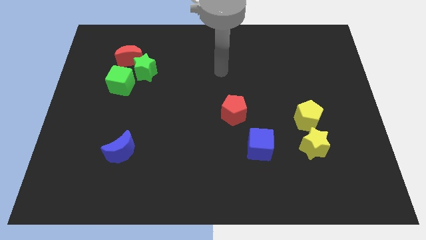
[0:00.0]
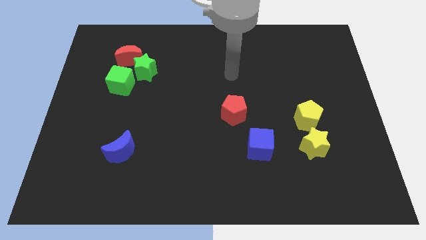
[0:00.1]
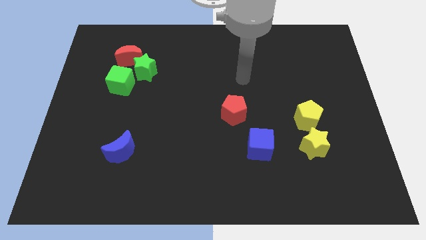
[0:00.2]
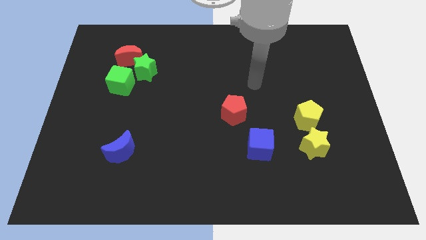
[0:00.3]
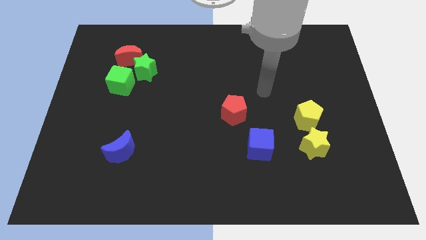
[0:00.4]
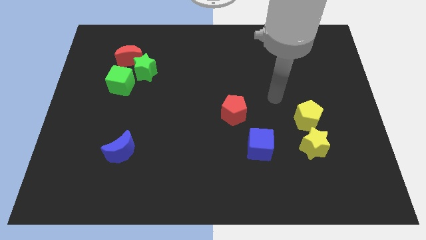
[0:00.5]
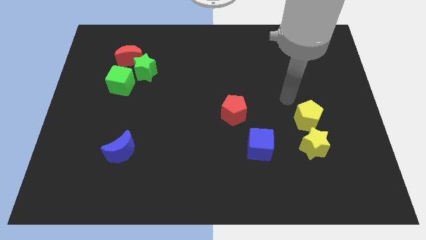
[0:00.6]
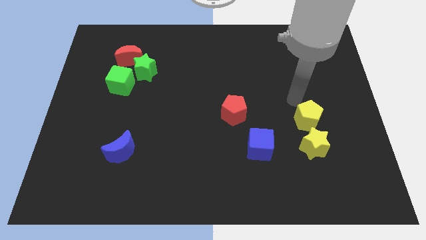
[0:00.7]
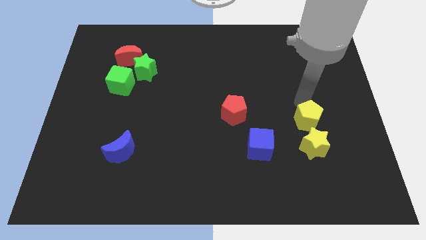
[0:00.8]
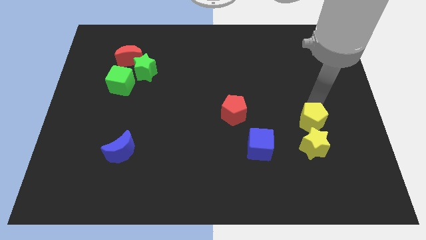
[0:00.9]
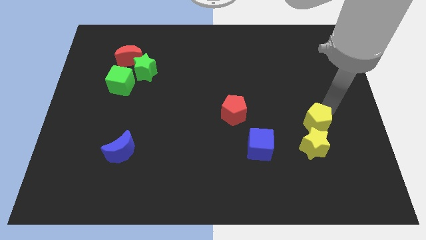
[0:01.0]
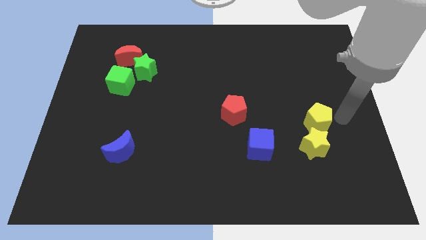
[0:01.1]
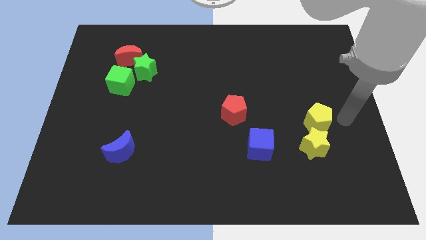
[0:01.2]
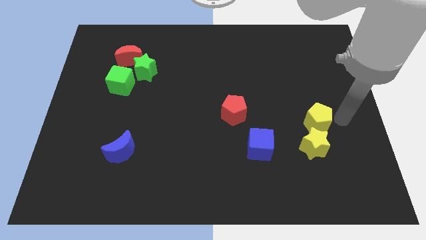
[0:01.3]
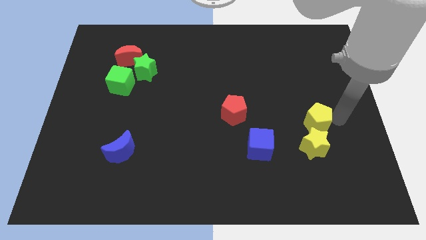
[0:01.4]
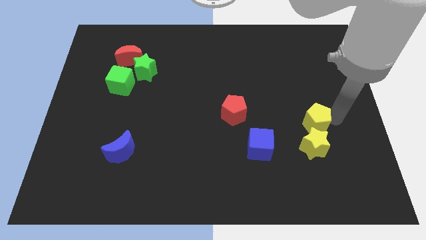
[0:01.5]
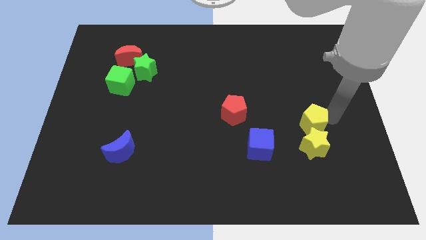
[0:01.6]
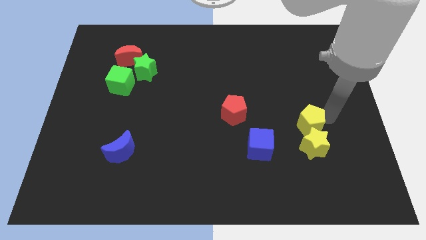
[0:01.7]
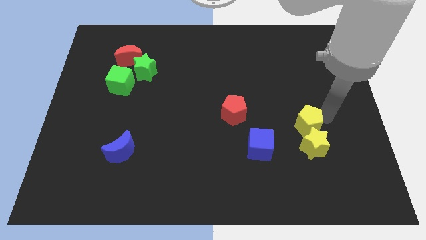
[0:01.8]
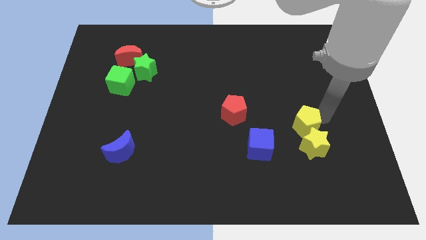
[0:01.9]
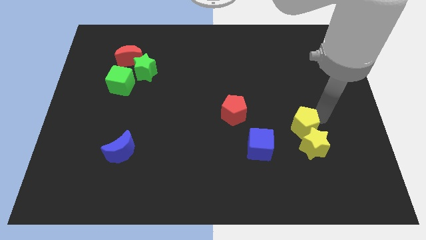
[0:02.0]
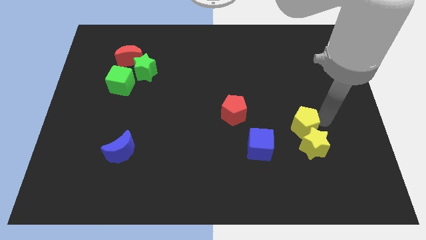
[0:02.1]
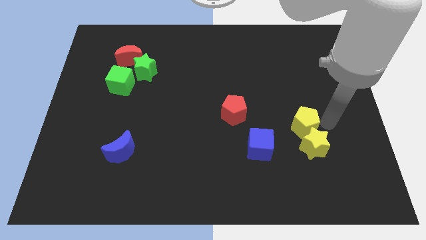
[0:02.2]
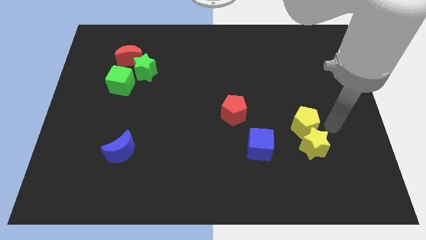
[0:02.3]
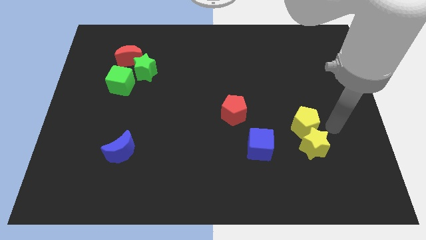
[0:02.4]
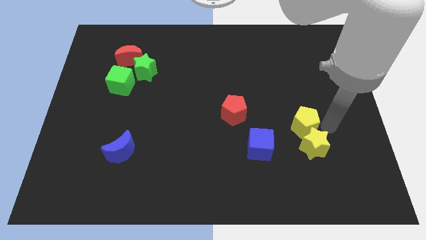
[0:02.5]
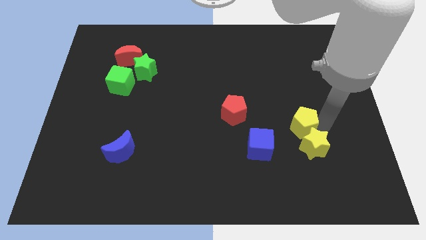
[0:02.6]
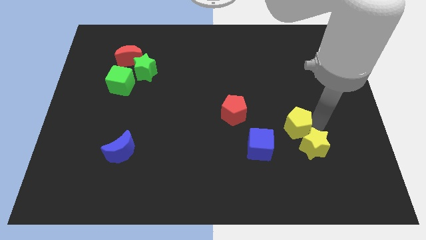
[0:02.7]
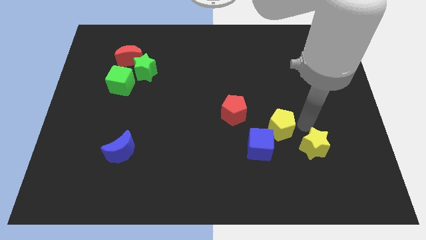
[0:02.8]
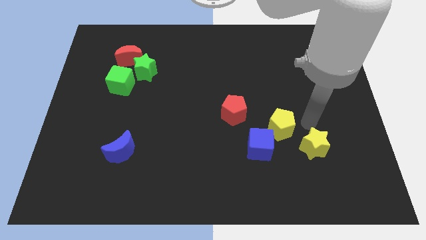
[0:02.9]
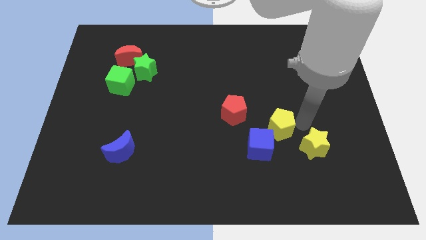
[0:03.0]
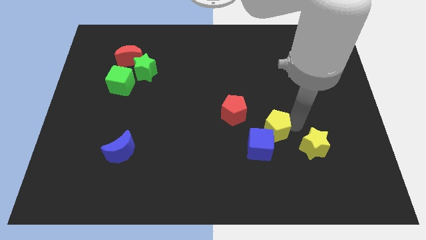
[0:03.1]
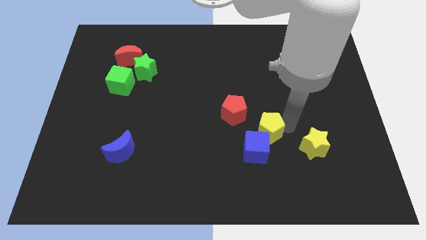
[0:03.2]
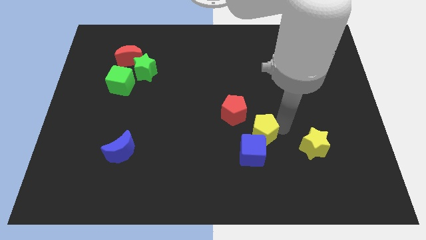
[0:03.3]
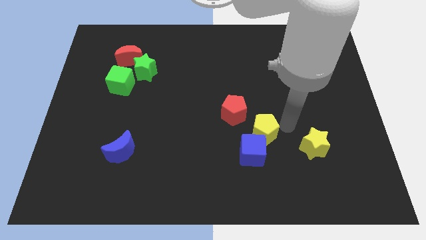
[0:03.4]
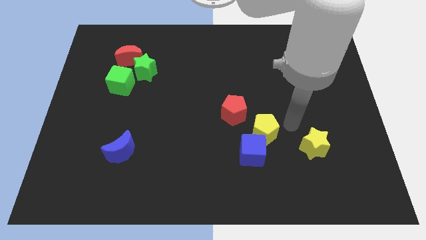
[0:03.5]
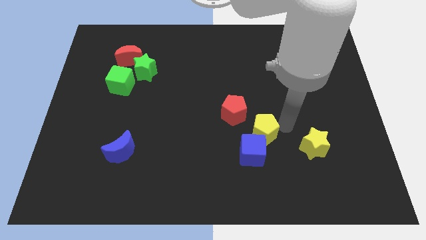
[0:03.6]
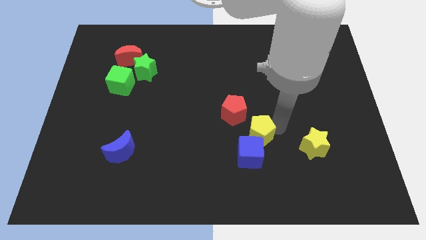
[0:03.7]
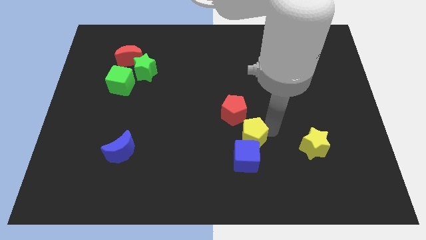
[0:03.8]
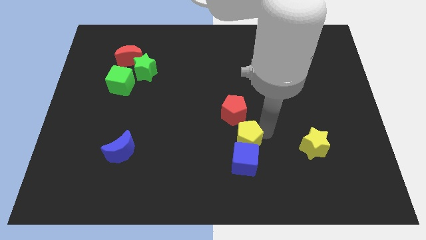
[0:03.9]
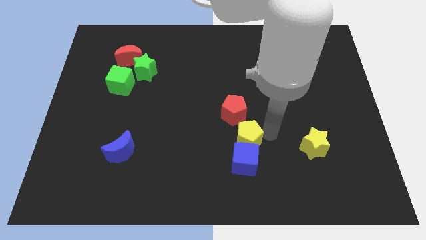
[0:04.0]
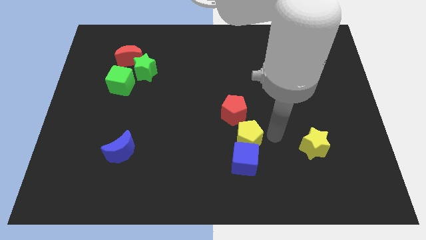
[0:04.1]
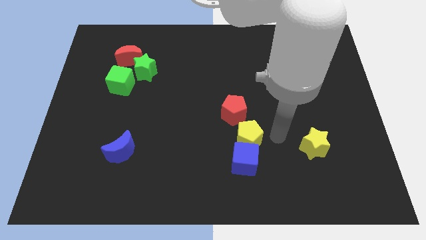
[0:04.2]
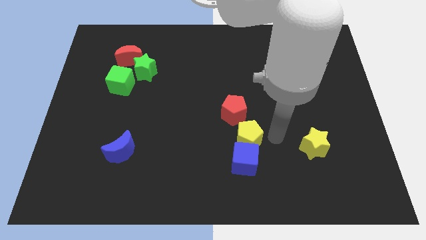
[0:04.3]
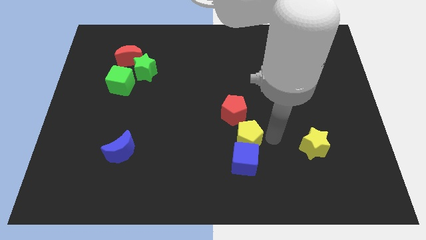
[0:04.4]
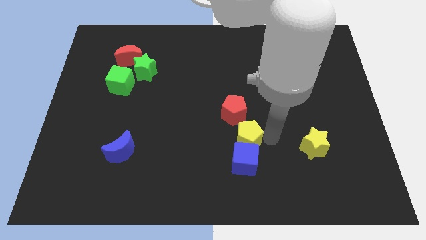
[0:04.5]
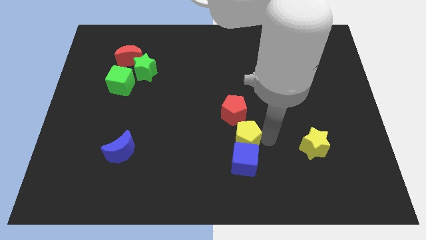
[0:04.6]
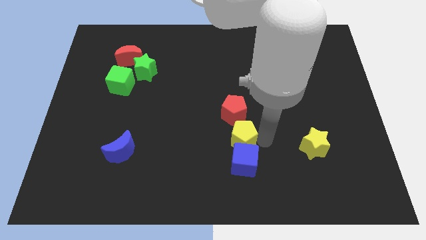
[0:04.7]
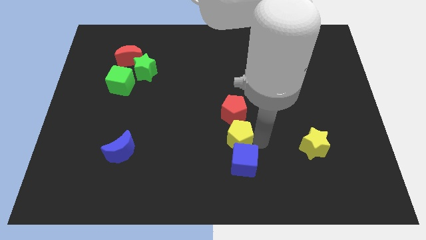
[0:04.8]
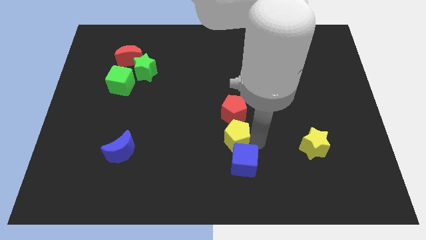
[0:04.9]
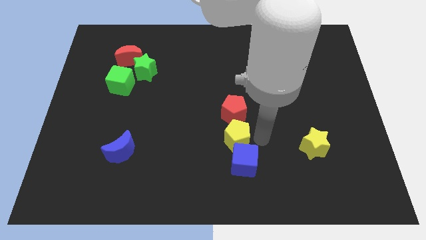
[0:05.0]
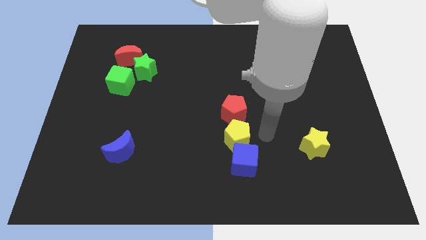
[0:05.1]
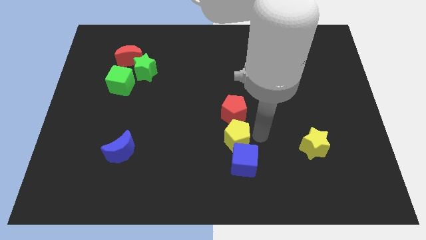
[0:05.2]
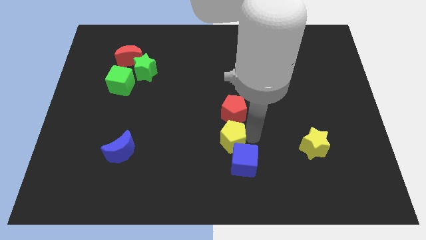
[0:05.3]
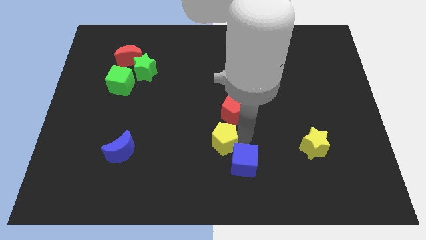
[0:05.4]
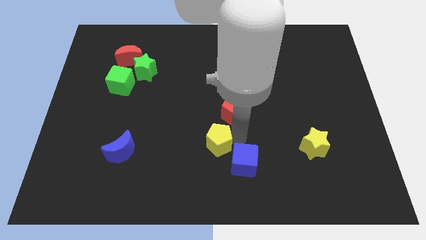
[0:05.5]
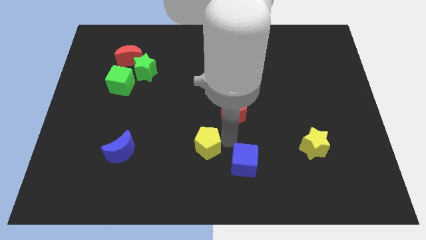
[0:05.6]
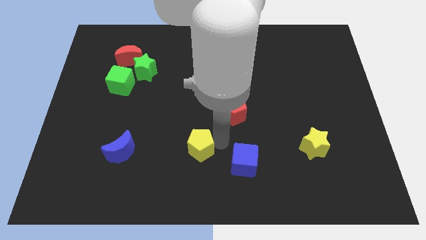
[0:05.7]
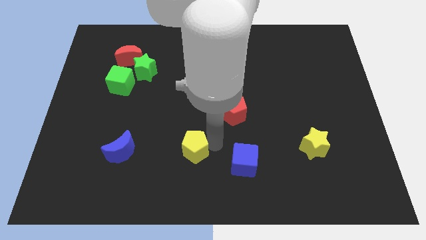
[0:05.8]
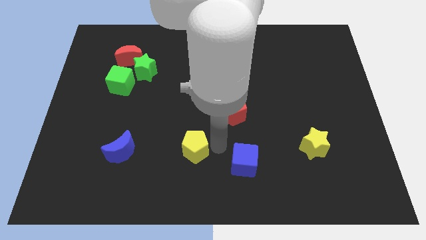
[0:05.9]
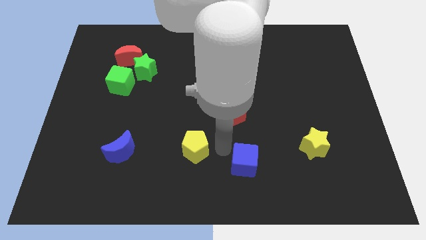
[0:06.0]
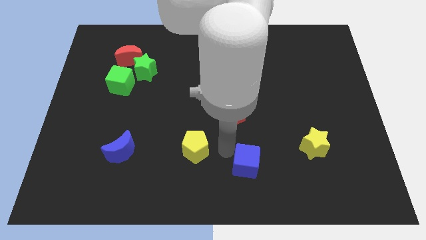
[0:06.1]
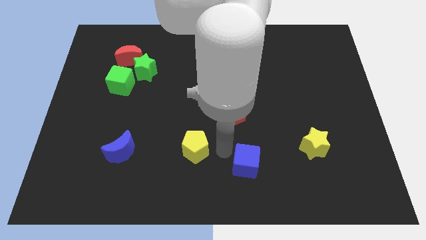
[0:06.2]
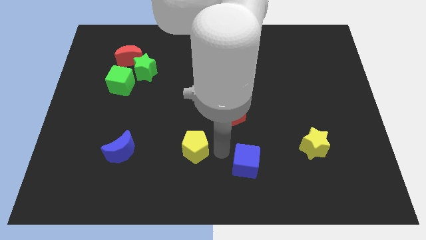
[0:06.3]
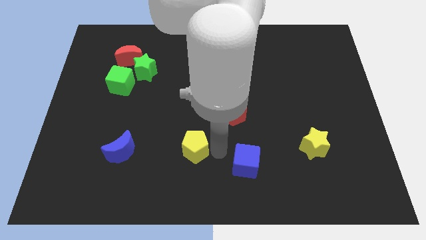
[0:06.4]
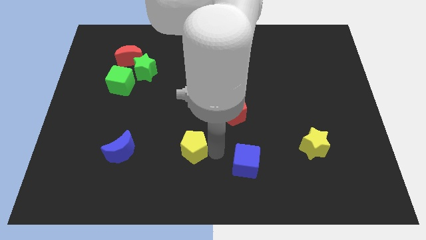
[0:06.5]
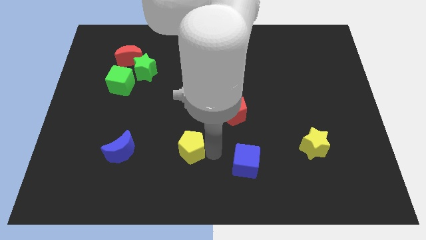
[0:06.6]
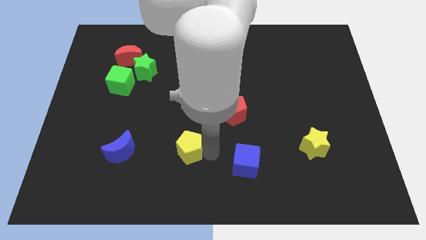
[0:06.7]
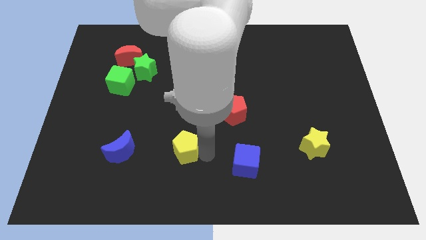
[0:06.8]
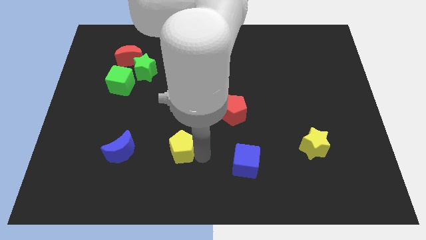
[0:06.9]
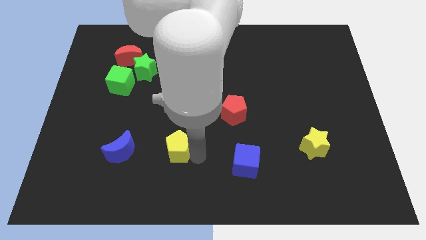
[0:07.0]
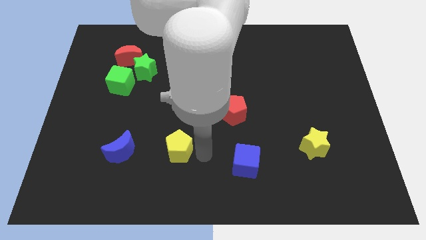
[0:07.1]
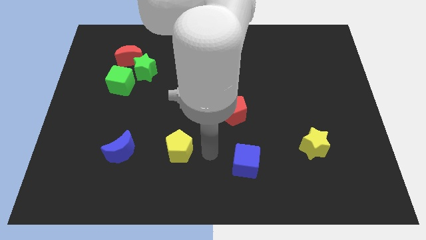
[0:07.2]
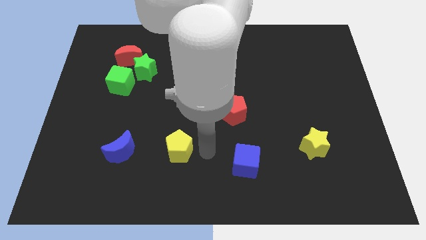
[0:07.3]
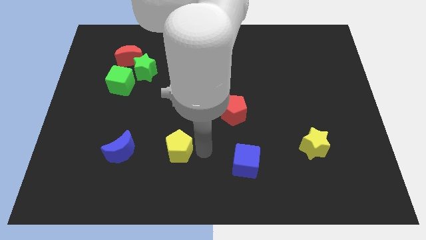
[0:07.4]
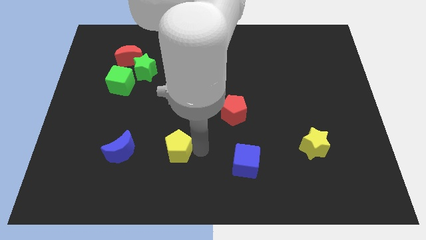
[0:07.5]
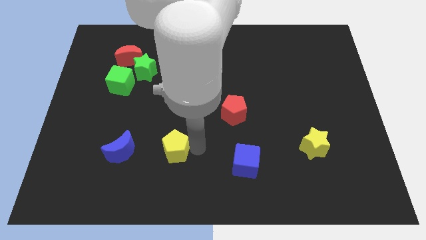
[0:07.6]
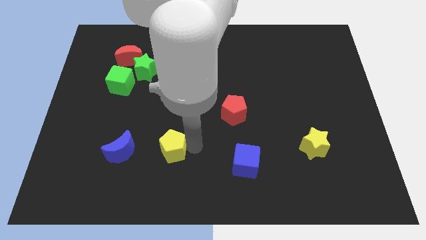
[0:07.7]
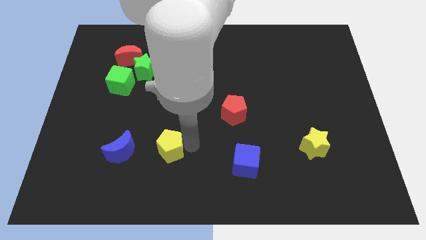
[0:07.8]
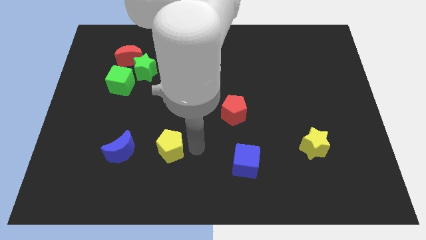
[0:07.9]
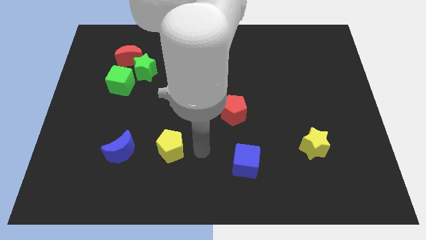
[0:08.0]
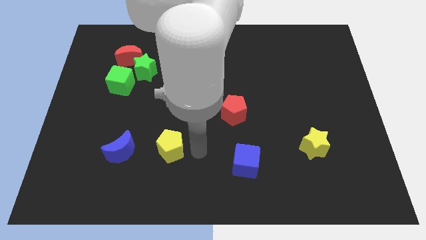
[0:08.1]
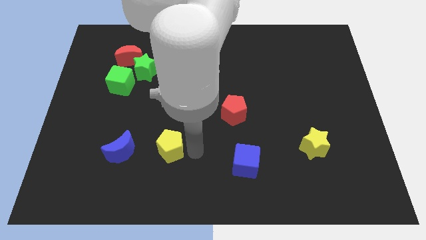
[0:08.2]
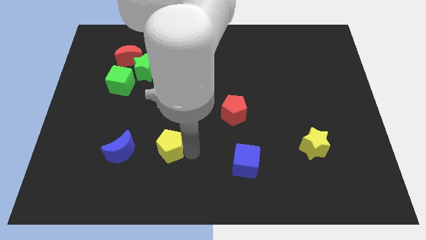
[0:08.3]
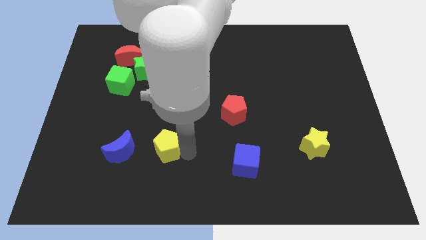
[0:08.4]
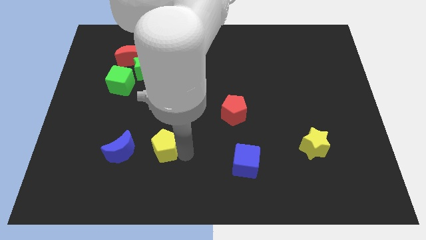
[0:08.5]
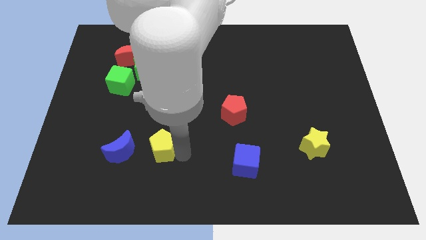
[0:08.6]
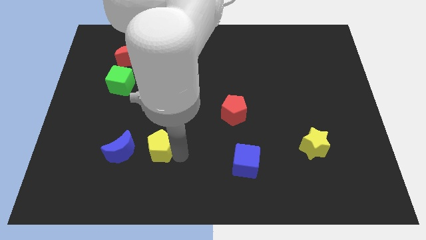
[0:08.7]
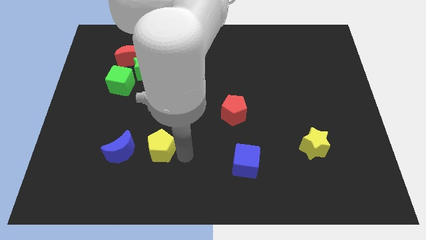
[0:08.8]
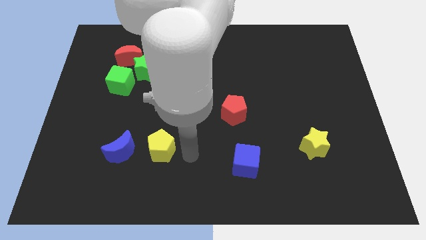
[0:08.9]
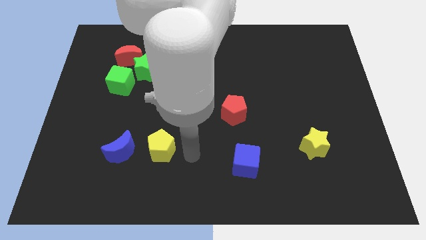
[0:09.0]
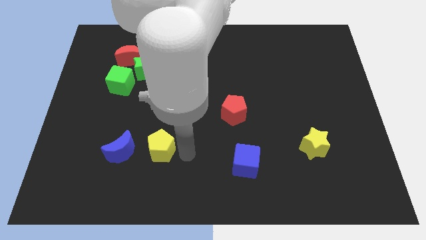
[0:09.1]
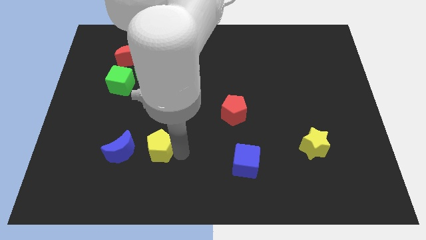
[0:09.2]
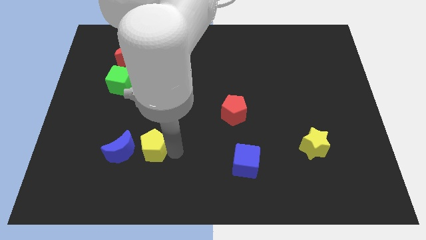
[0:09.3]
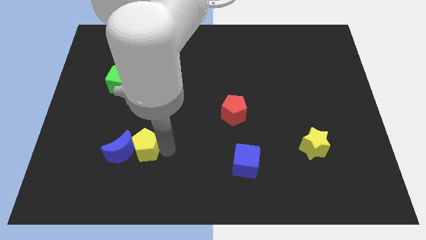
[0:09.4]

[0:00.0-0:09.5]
put the yellow pentagon next to the blue moon
